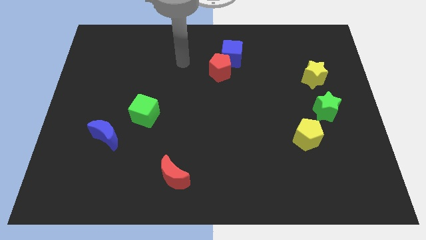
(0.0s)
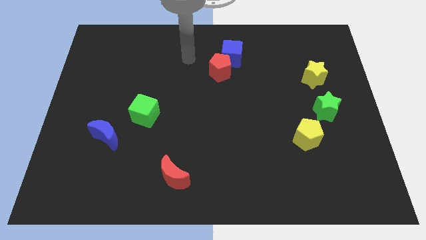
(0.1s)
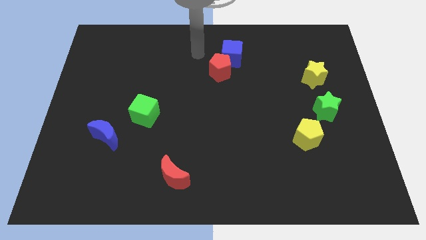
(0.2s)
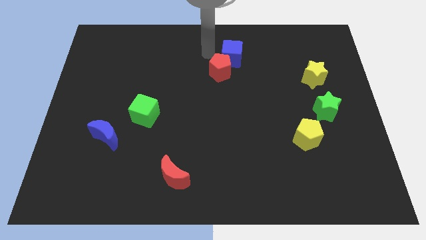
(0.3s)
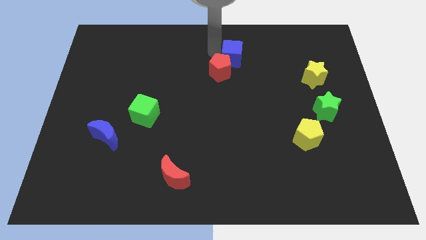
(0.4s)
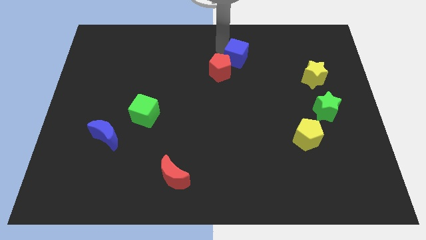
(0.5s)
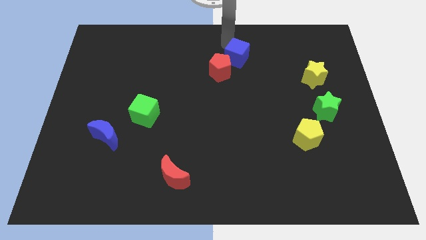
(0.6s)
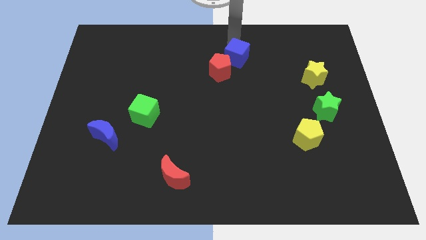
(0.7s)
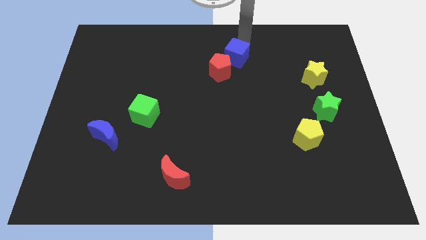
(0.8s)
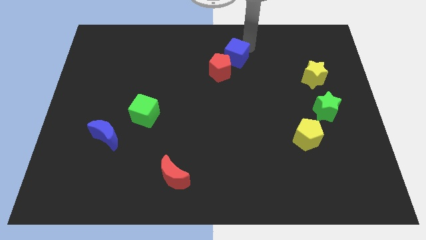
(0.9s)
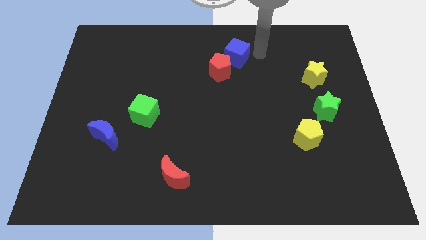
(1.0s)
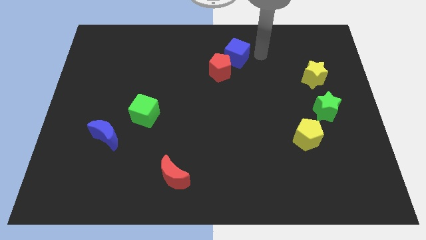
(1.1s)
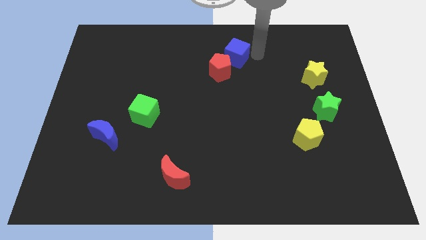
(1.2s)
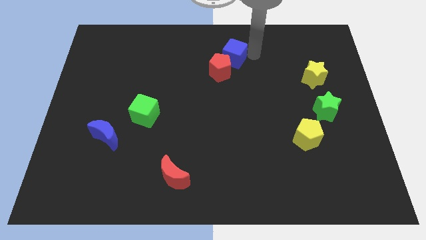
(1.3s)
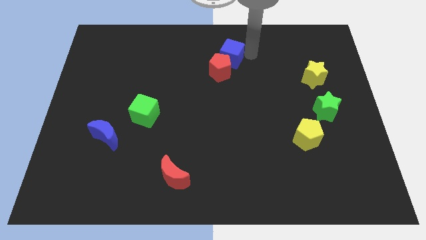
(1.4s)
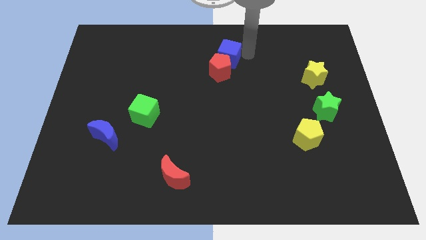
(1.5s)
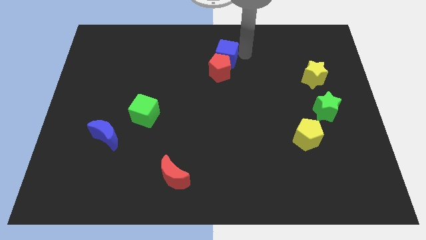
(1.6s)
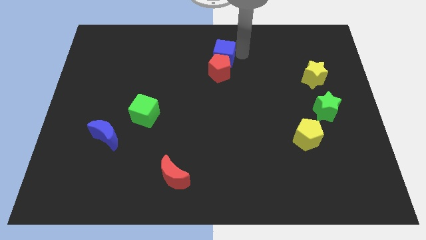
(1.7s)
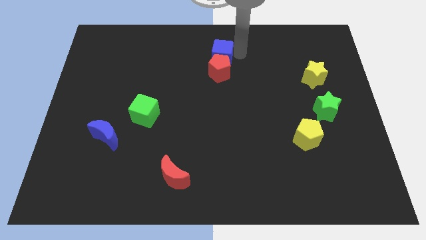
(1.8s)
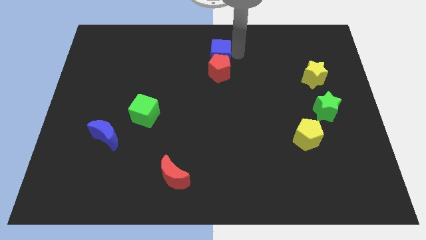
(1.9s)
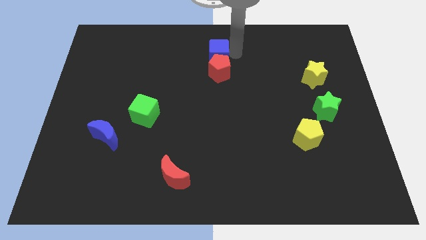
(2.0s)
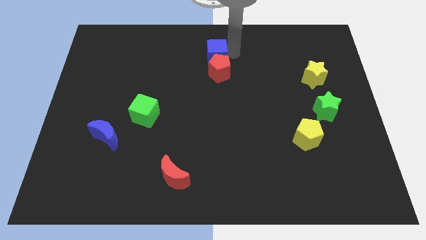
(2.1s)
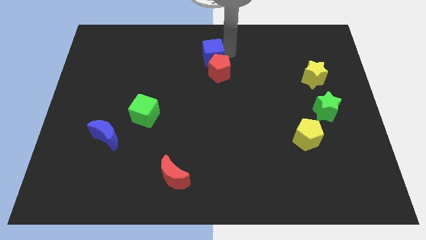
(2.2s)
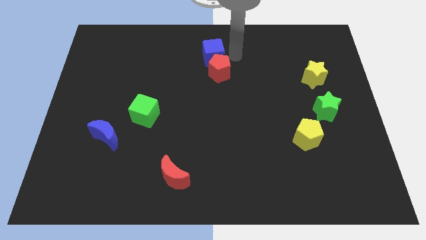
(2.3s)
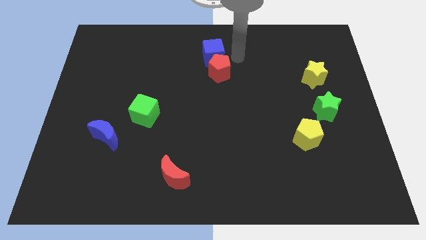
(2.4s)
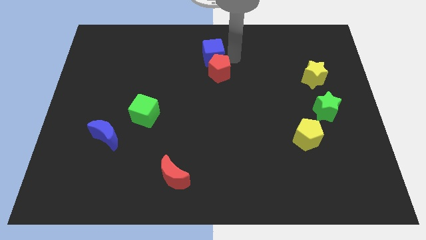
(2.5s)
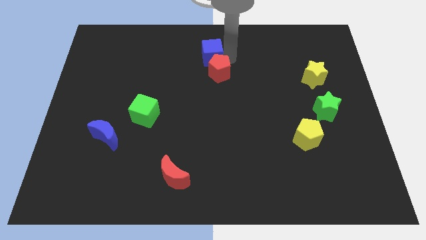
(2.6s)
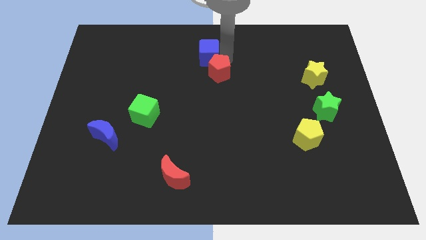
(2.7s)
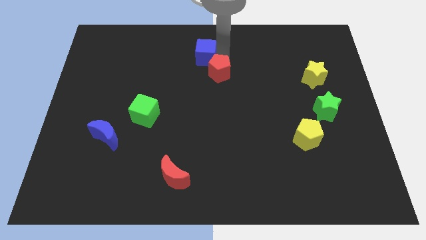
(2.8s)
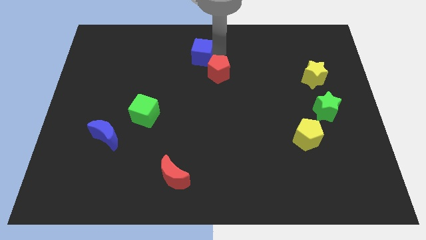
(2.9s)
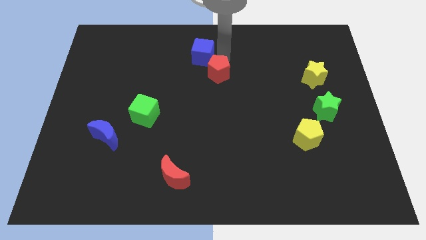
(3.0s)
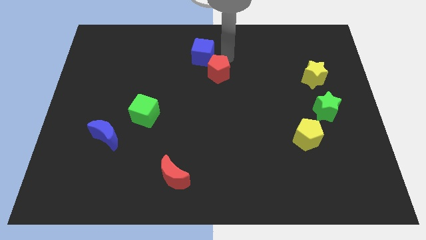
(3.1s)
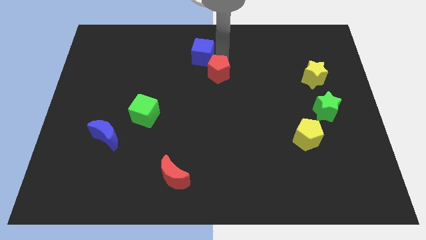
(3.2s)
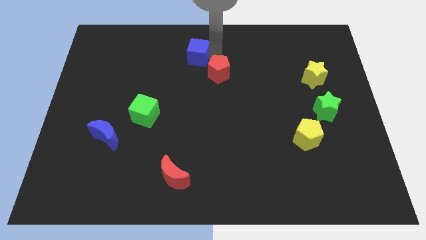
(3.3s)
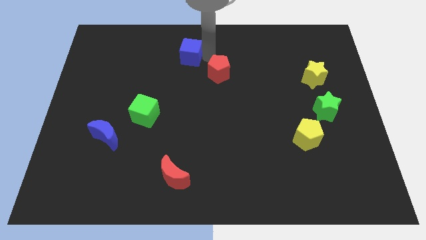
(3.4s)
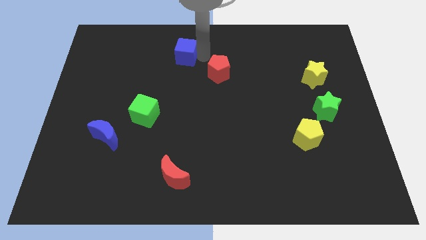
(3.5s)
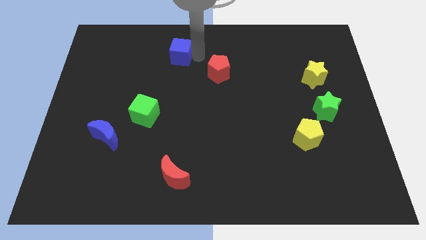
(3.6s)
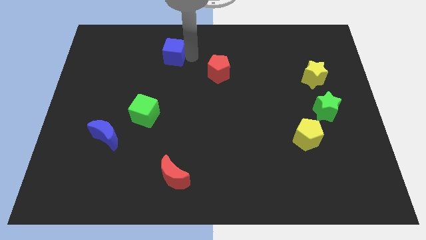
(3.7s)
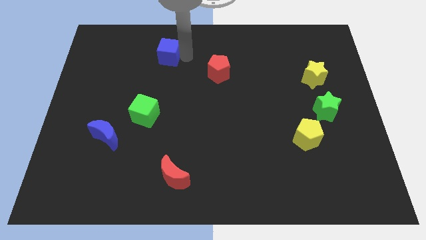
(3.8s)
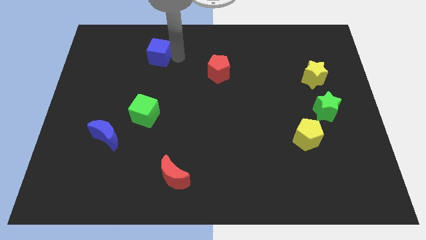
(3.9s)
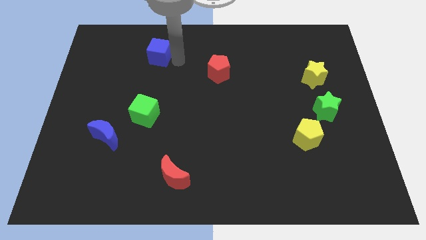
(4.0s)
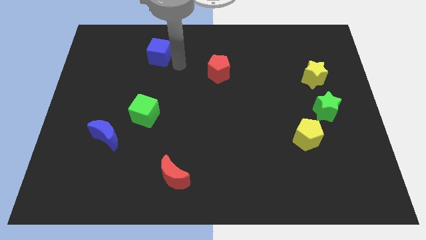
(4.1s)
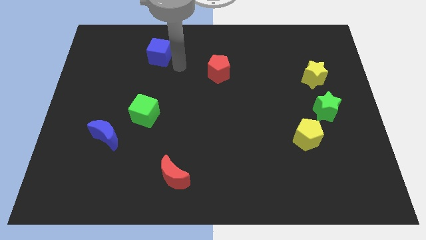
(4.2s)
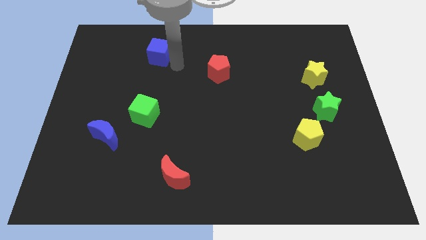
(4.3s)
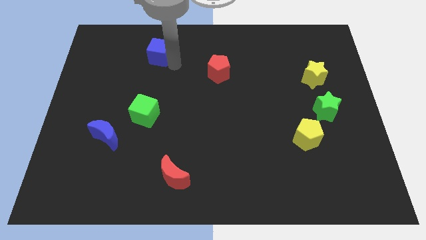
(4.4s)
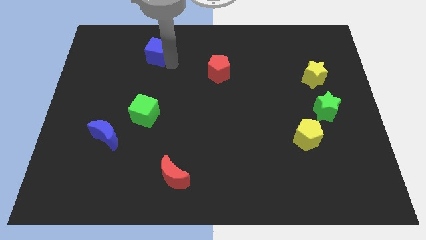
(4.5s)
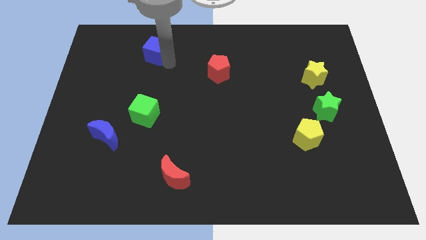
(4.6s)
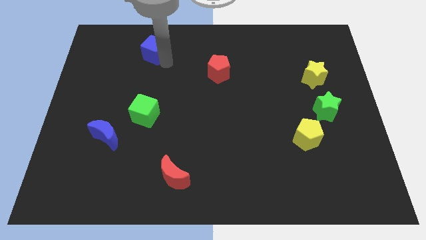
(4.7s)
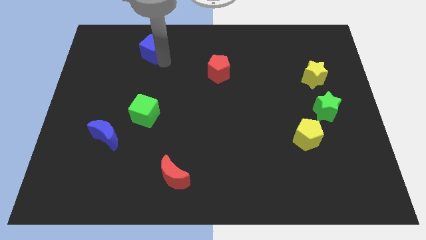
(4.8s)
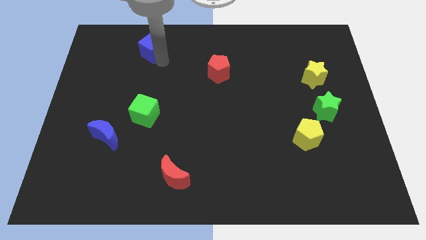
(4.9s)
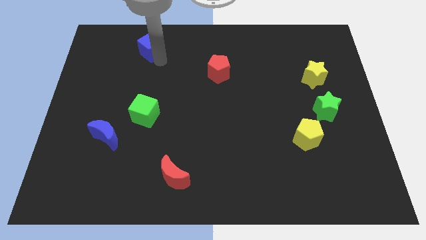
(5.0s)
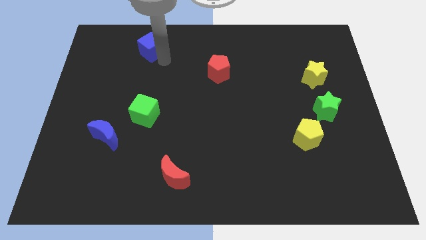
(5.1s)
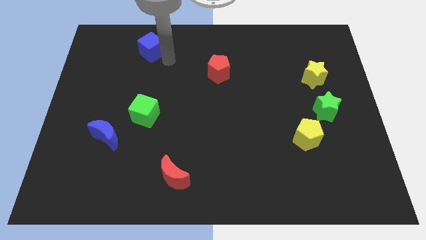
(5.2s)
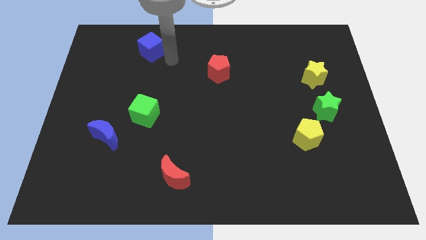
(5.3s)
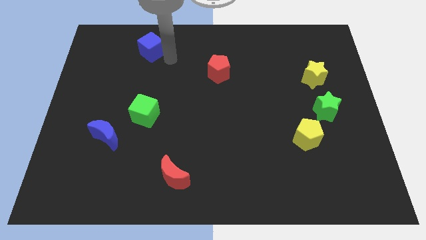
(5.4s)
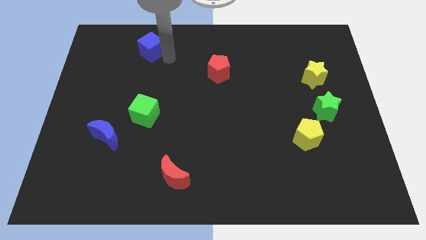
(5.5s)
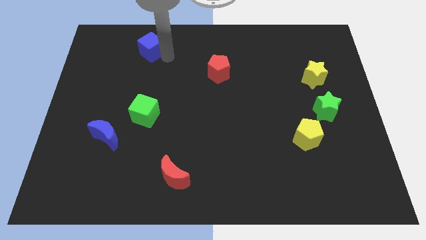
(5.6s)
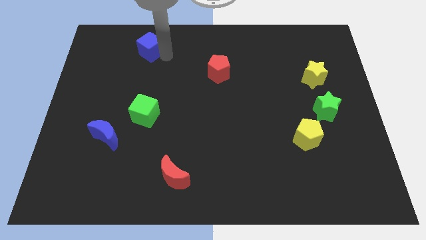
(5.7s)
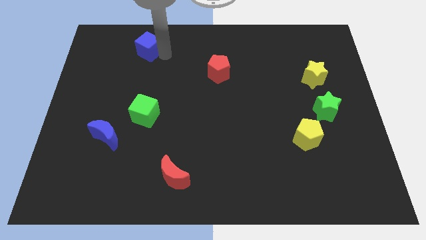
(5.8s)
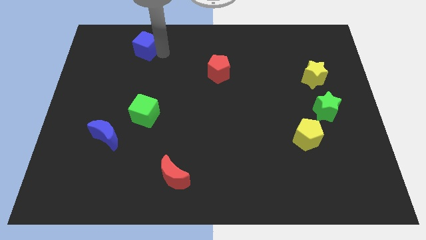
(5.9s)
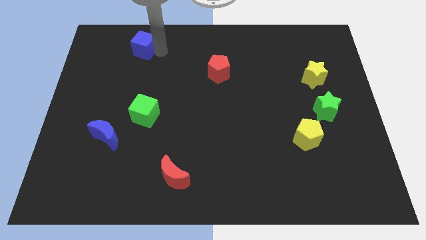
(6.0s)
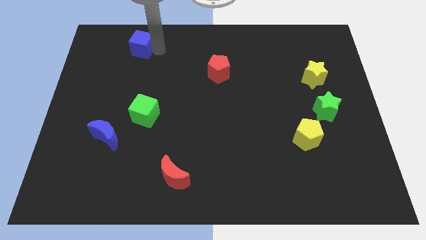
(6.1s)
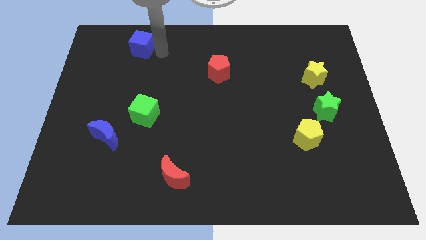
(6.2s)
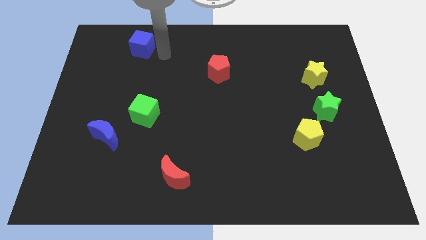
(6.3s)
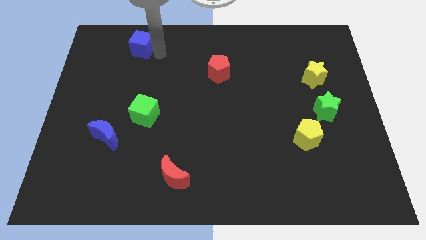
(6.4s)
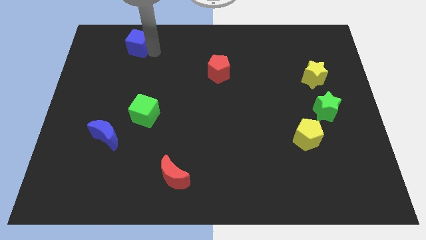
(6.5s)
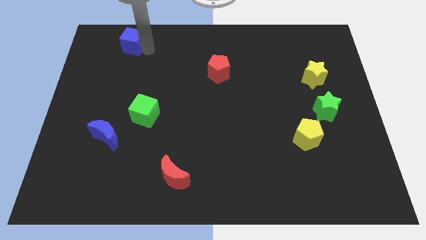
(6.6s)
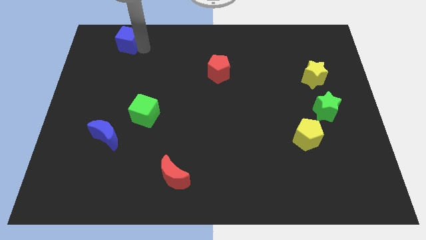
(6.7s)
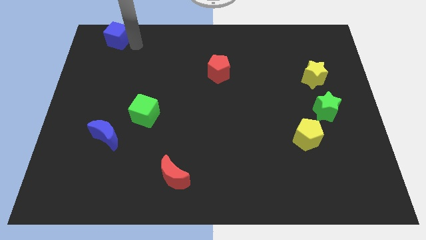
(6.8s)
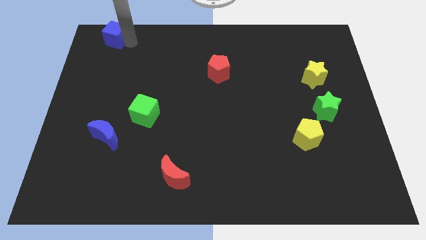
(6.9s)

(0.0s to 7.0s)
put the blue cube to the top left
